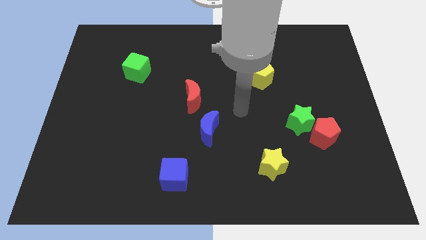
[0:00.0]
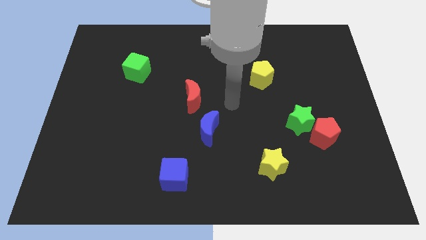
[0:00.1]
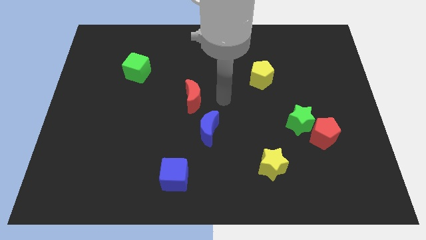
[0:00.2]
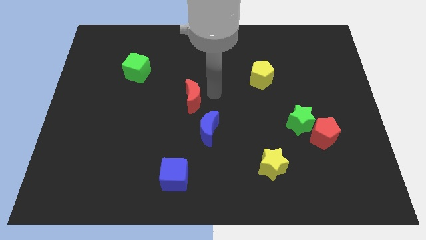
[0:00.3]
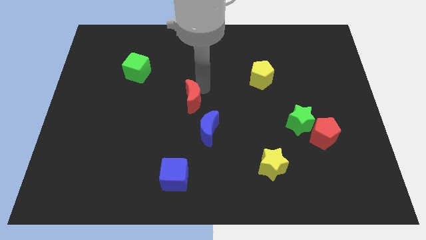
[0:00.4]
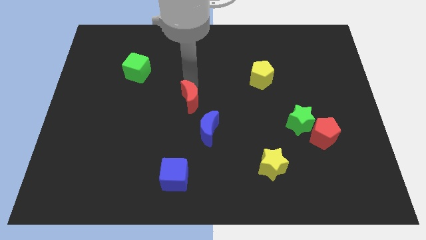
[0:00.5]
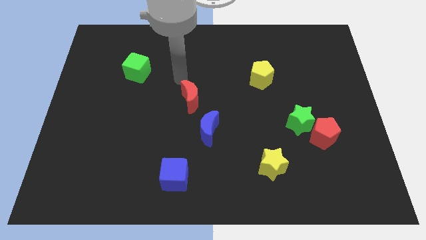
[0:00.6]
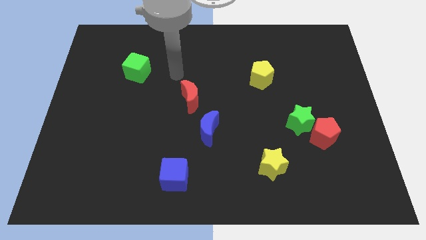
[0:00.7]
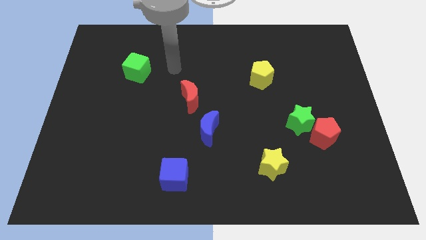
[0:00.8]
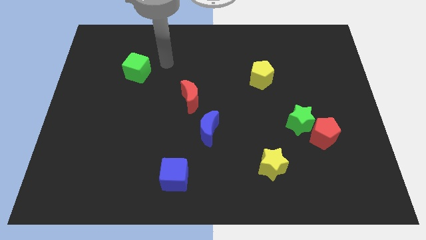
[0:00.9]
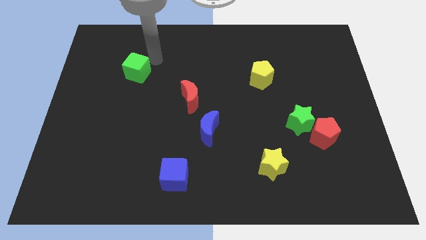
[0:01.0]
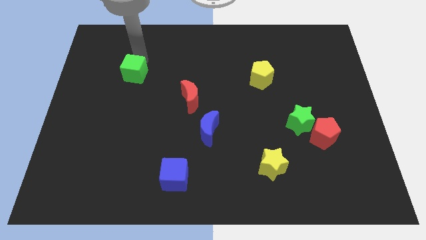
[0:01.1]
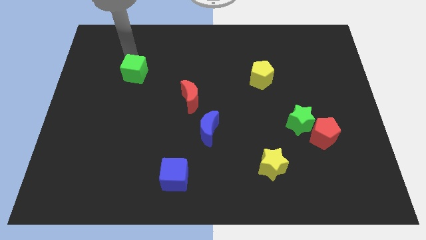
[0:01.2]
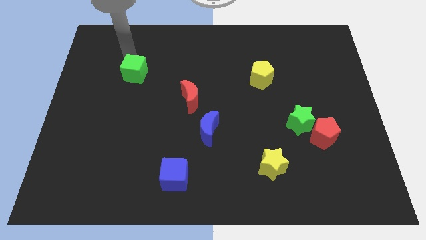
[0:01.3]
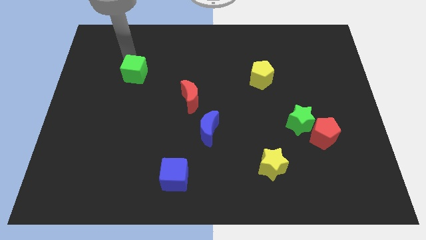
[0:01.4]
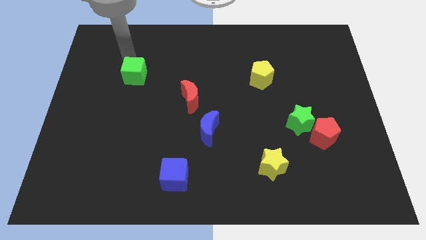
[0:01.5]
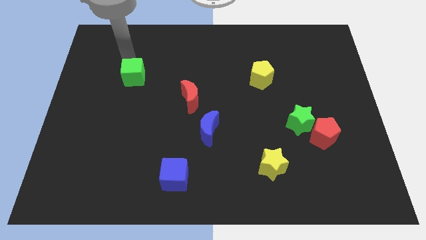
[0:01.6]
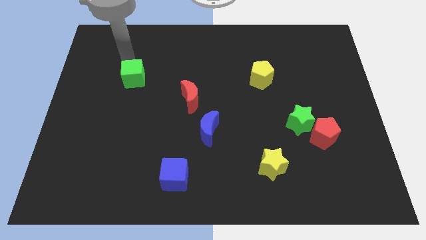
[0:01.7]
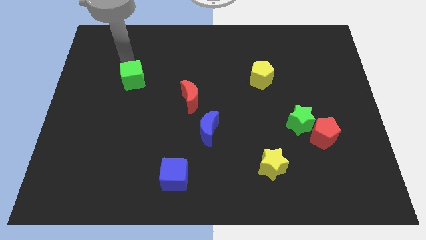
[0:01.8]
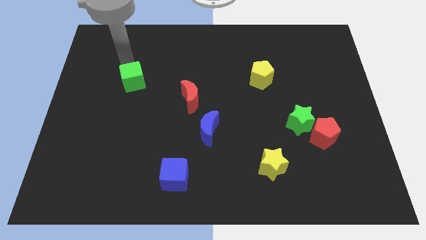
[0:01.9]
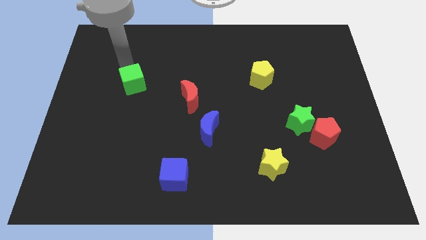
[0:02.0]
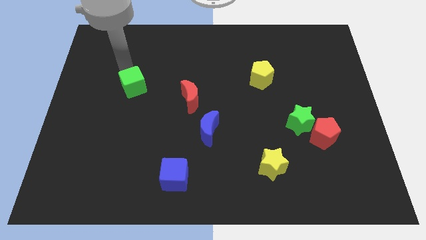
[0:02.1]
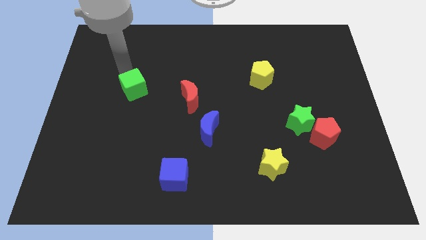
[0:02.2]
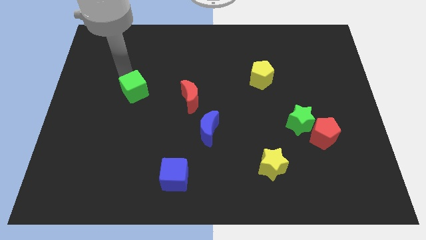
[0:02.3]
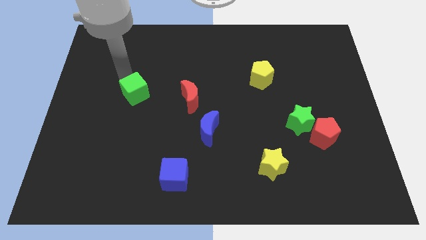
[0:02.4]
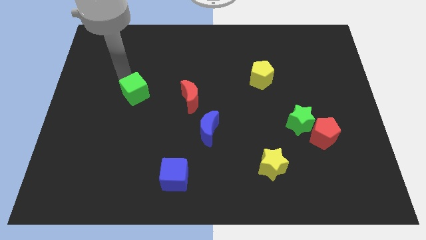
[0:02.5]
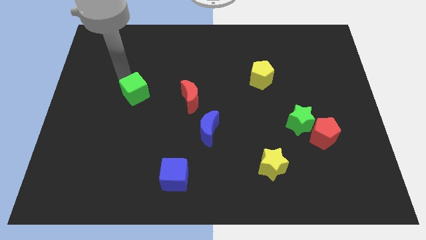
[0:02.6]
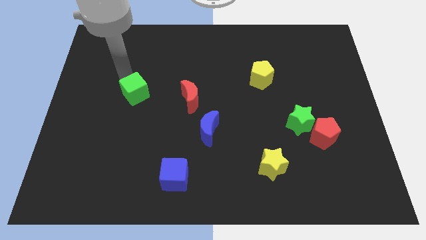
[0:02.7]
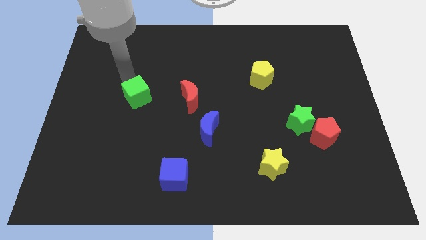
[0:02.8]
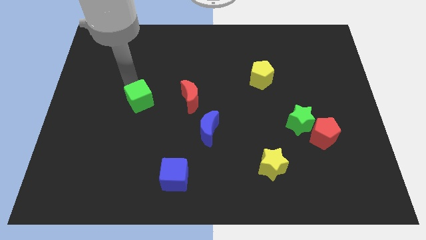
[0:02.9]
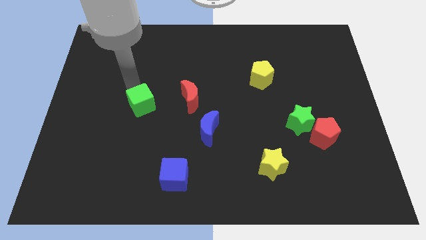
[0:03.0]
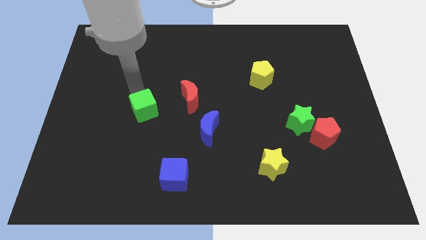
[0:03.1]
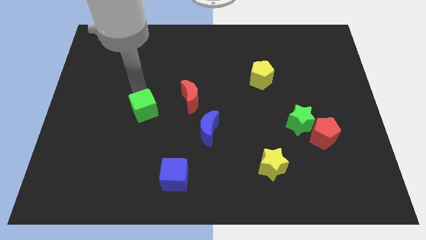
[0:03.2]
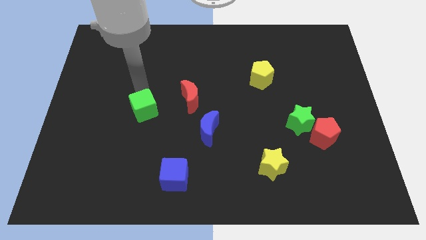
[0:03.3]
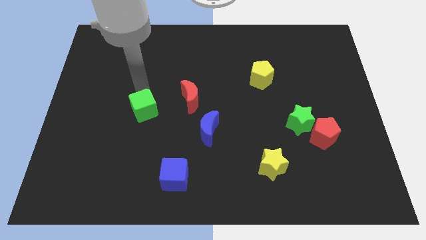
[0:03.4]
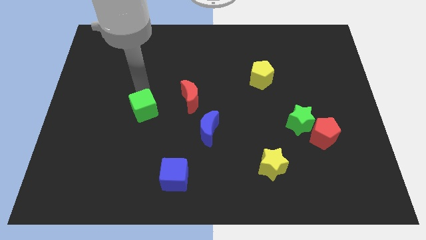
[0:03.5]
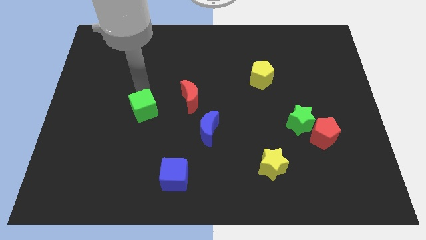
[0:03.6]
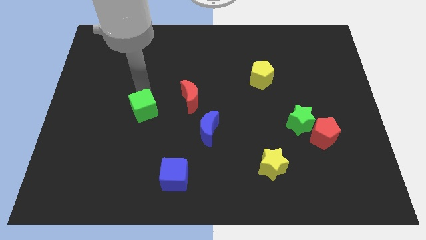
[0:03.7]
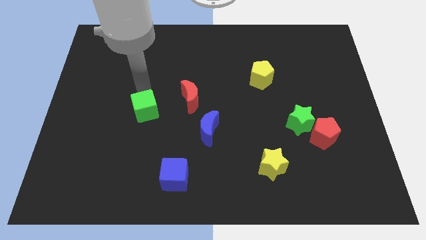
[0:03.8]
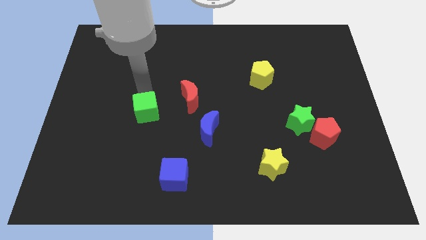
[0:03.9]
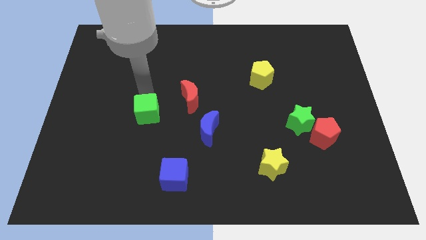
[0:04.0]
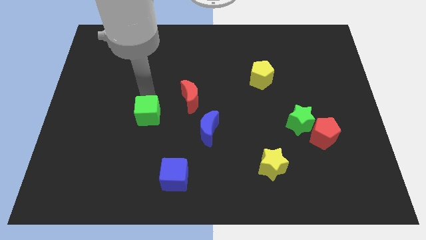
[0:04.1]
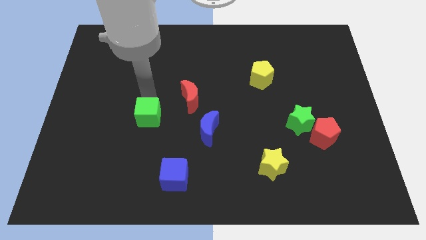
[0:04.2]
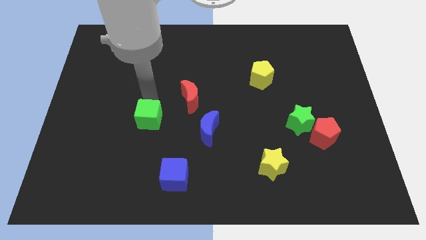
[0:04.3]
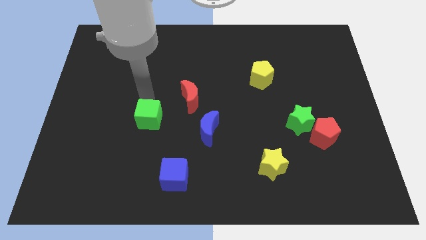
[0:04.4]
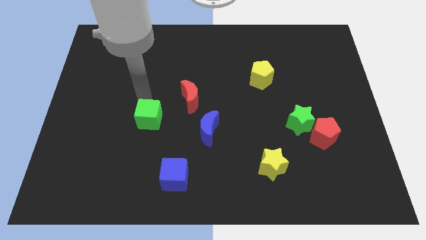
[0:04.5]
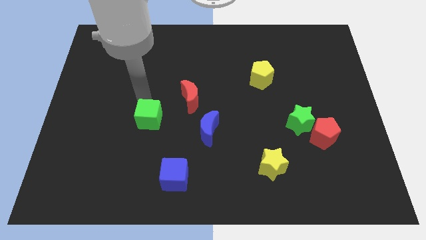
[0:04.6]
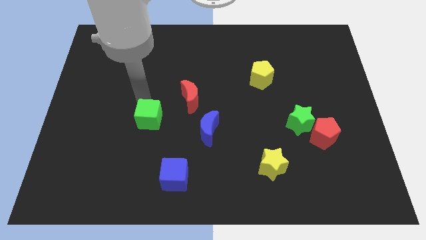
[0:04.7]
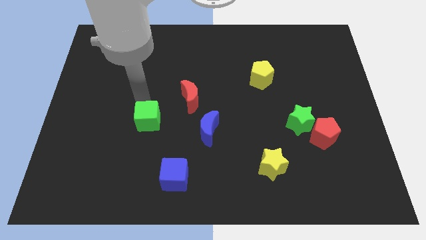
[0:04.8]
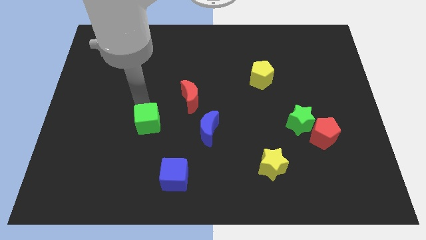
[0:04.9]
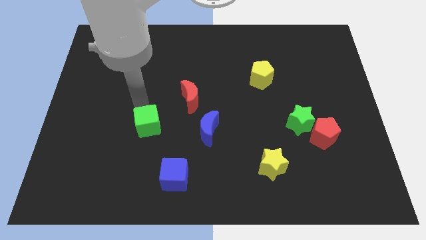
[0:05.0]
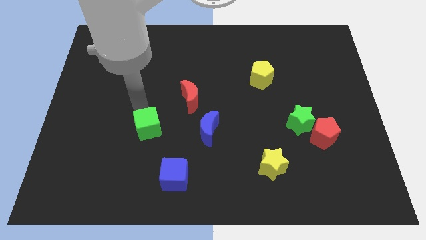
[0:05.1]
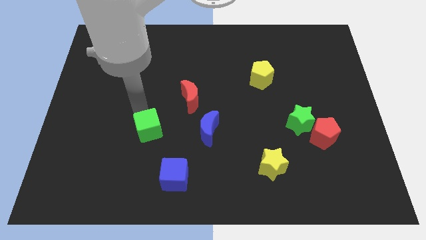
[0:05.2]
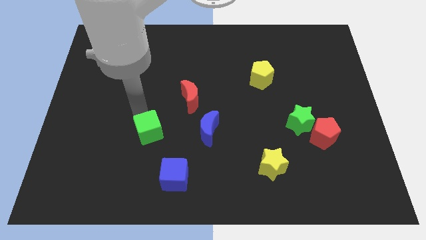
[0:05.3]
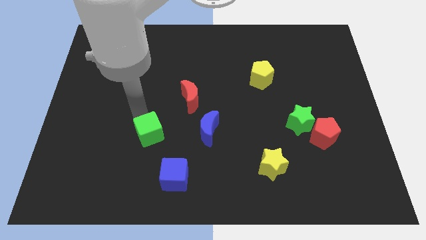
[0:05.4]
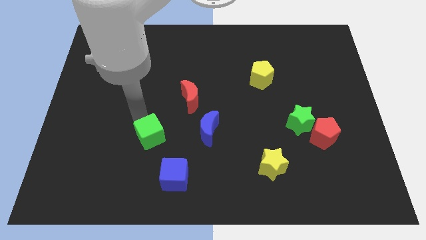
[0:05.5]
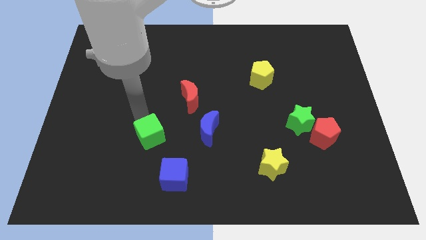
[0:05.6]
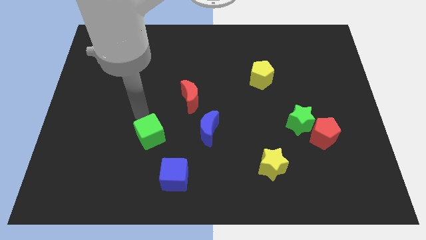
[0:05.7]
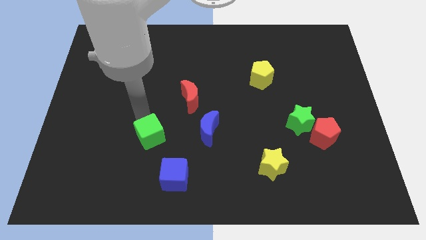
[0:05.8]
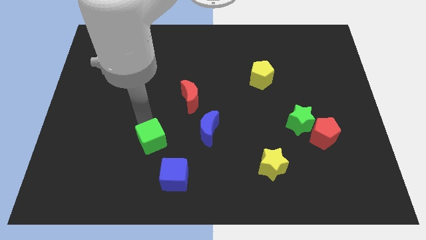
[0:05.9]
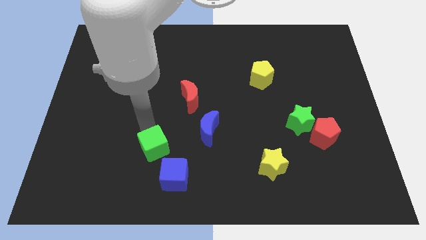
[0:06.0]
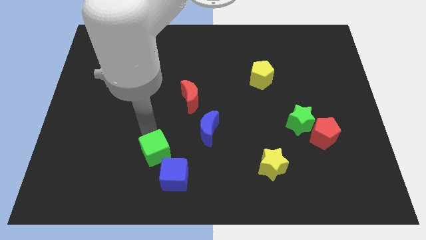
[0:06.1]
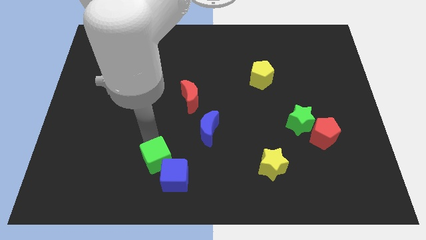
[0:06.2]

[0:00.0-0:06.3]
slide the green cube close to the blue cube

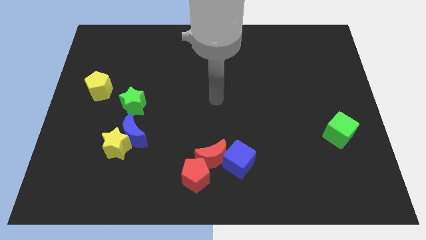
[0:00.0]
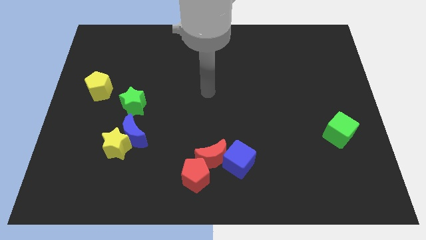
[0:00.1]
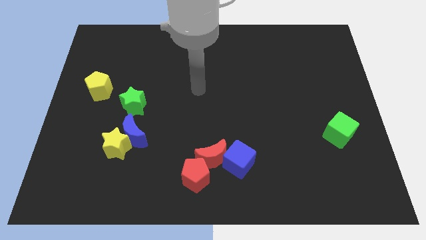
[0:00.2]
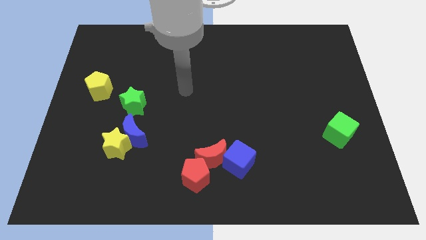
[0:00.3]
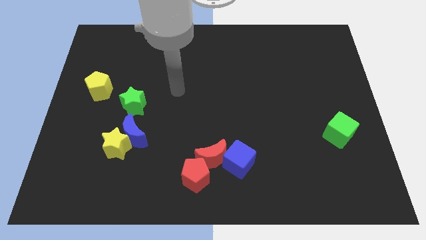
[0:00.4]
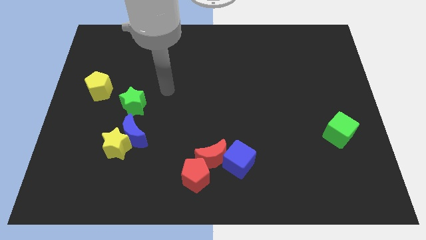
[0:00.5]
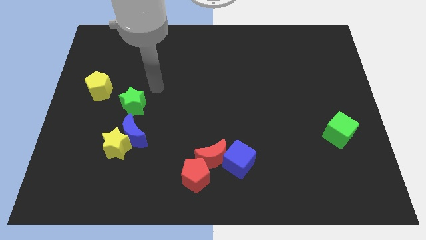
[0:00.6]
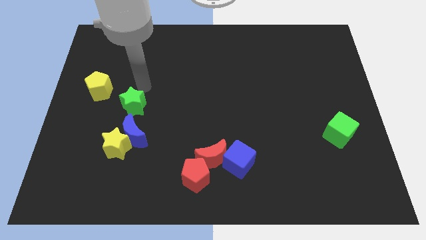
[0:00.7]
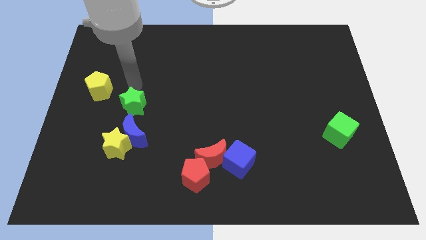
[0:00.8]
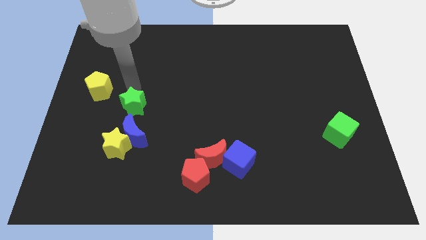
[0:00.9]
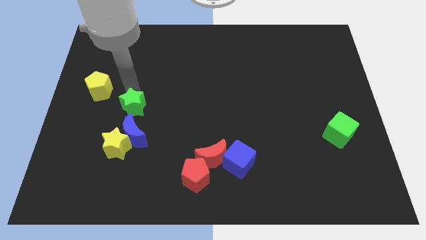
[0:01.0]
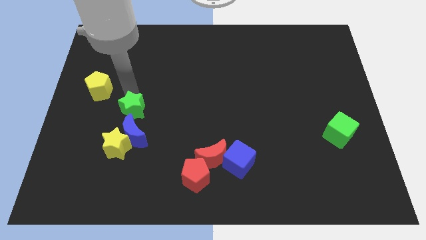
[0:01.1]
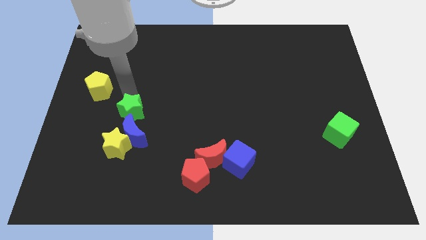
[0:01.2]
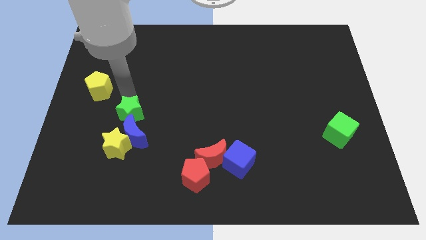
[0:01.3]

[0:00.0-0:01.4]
push the green star next to the blue moon
